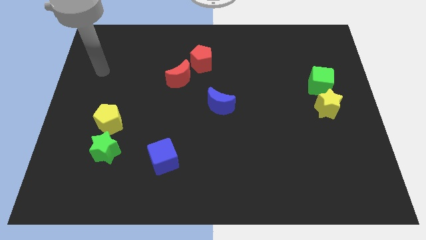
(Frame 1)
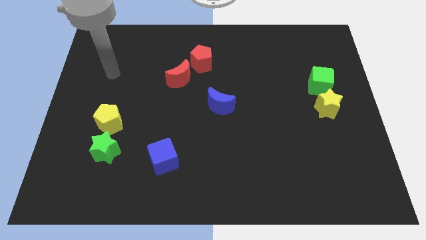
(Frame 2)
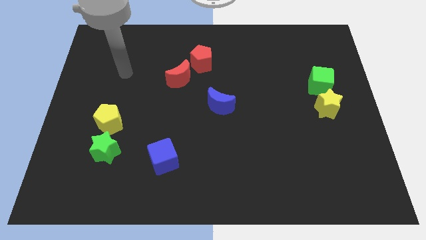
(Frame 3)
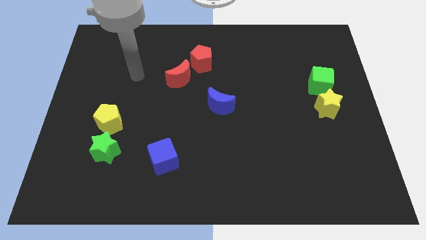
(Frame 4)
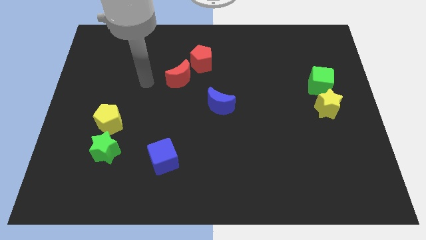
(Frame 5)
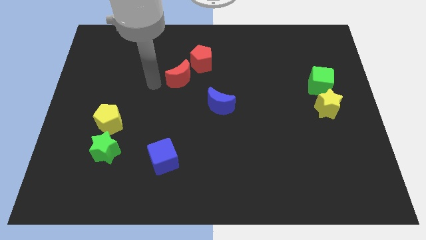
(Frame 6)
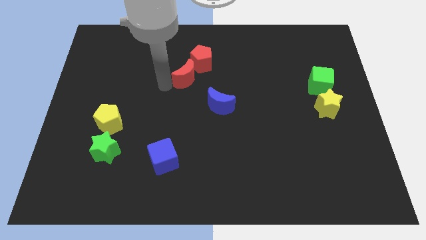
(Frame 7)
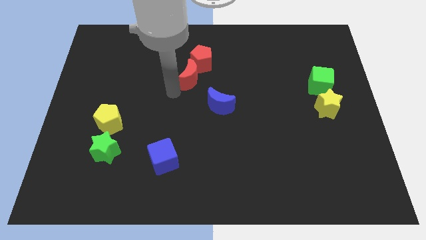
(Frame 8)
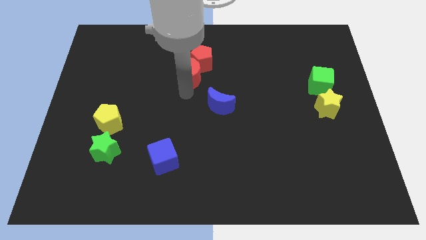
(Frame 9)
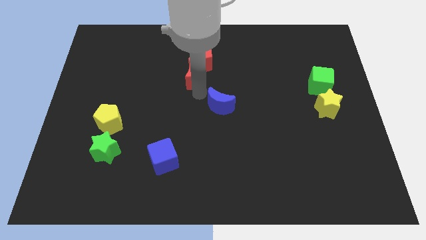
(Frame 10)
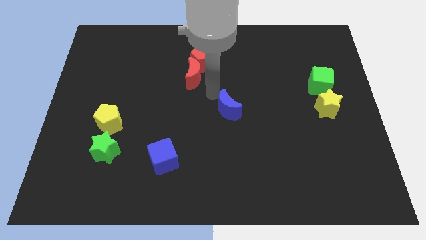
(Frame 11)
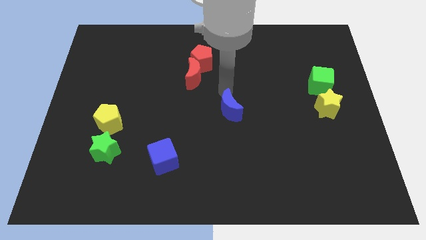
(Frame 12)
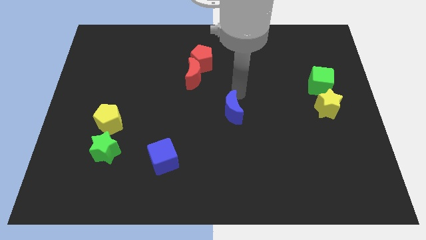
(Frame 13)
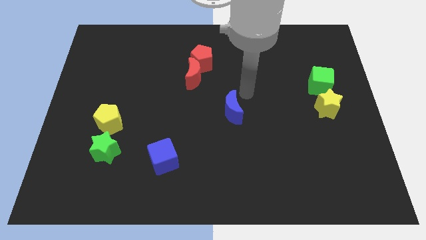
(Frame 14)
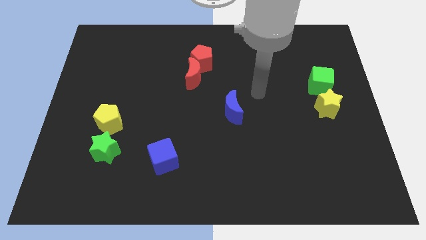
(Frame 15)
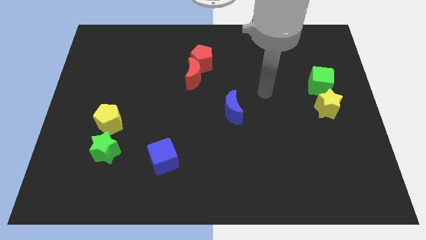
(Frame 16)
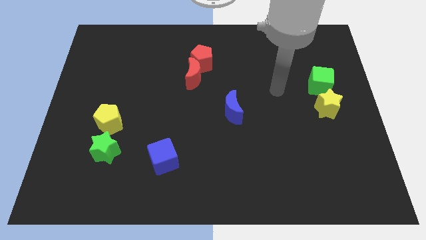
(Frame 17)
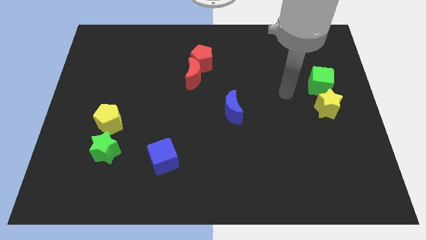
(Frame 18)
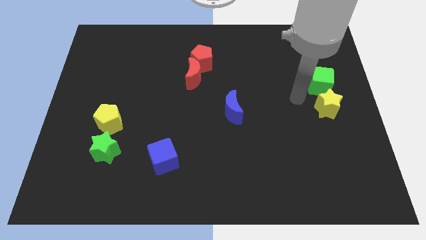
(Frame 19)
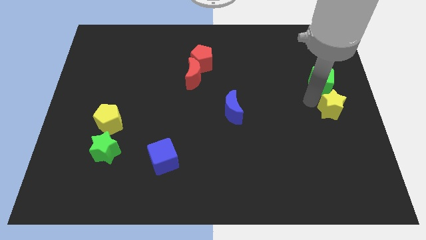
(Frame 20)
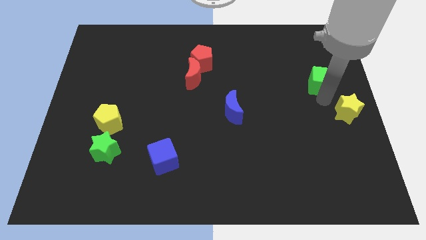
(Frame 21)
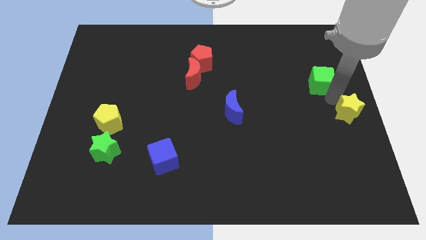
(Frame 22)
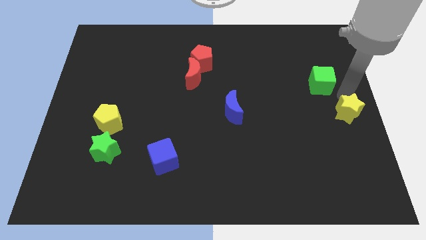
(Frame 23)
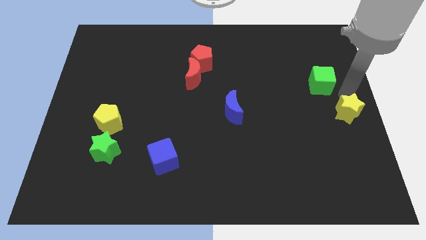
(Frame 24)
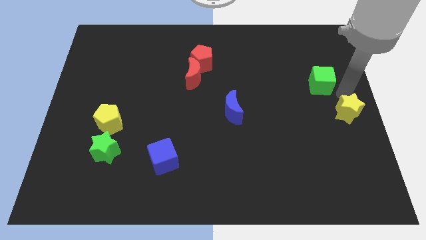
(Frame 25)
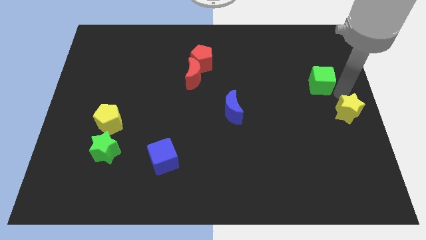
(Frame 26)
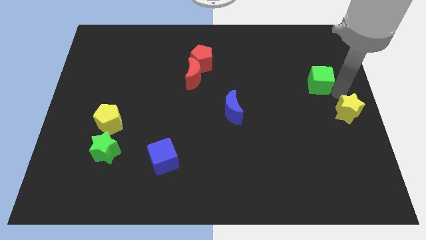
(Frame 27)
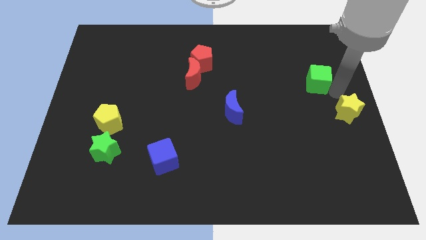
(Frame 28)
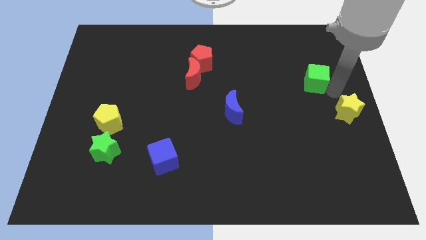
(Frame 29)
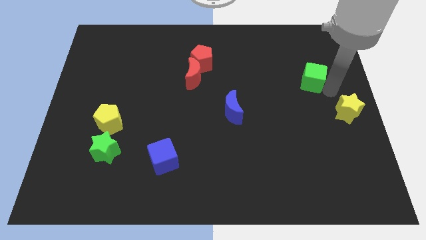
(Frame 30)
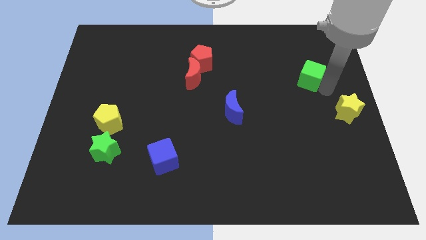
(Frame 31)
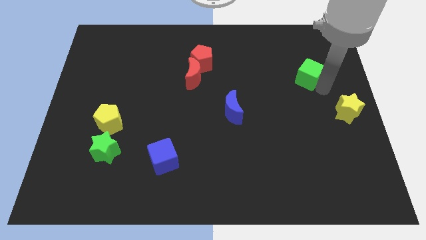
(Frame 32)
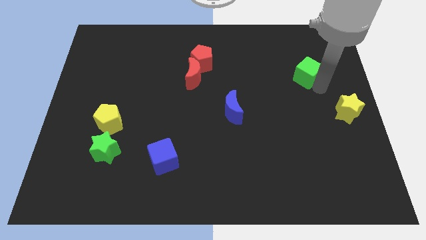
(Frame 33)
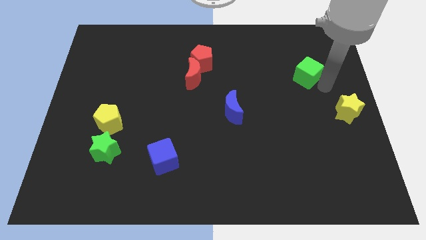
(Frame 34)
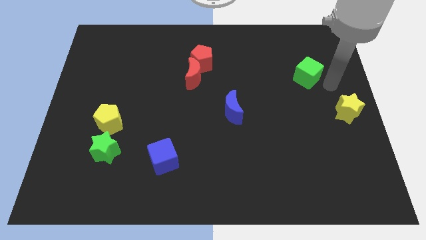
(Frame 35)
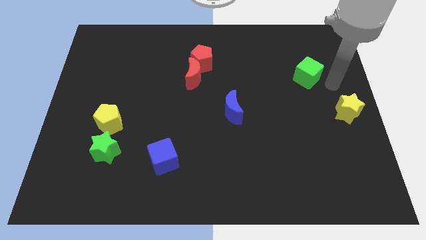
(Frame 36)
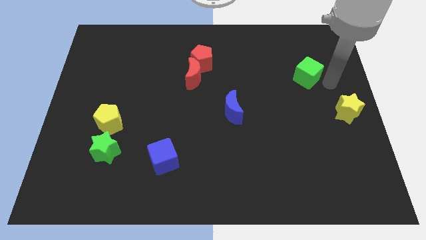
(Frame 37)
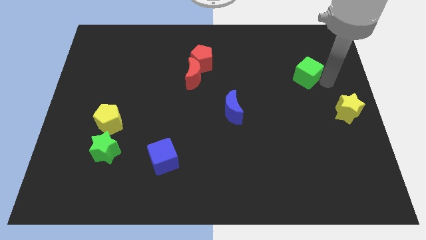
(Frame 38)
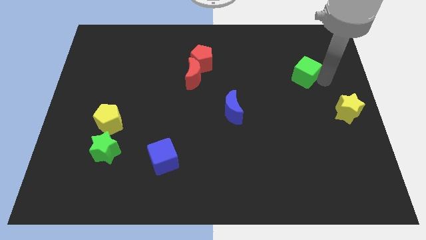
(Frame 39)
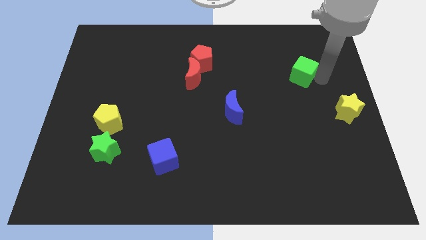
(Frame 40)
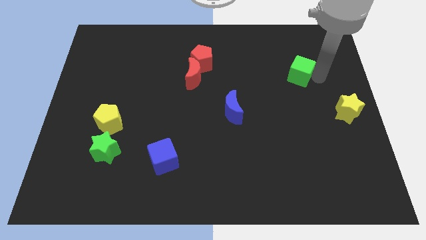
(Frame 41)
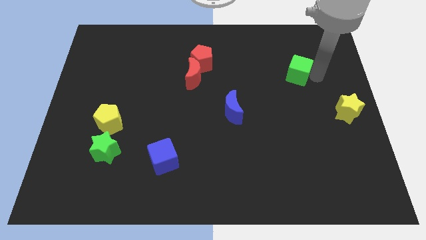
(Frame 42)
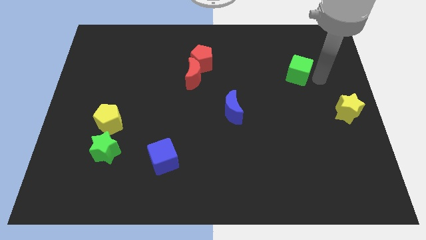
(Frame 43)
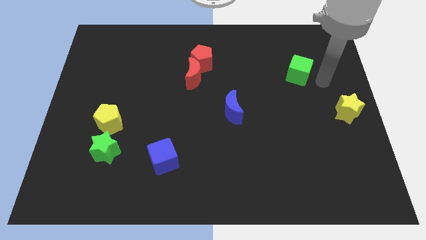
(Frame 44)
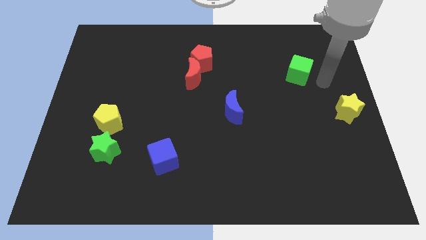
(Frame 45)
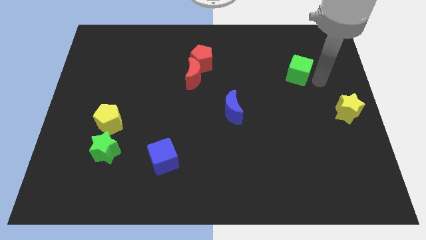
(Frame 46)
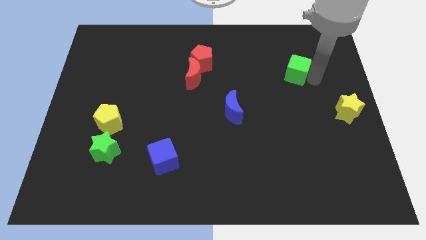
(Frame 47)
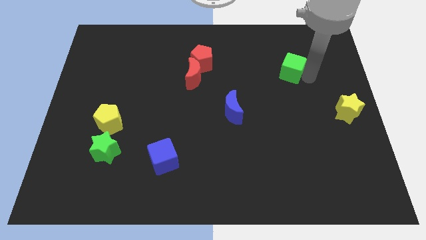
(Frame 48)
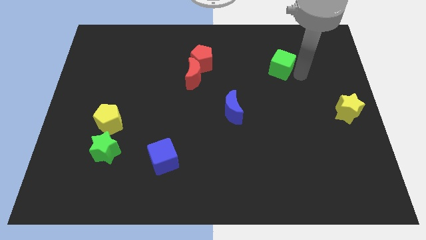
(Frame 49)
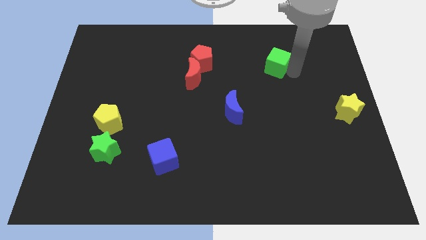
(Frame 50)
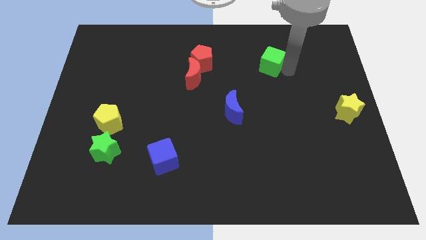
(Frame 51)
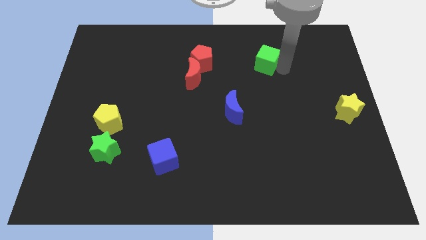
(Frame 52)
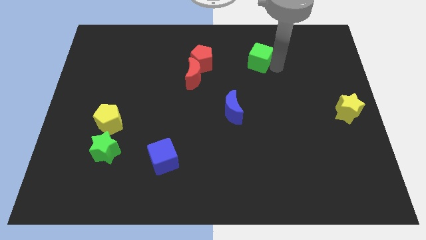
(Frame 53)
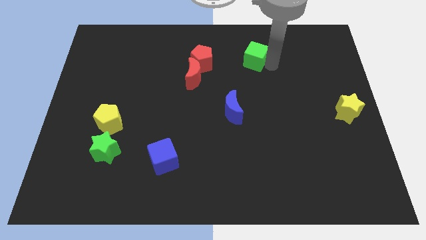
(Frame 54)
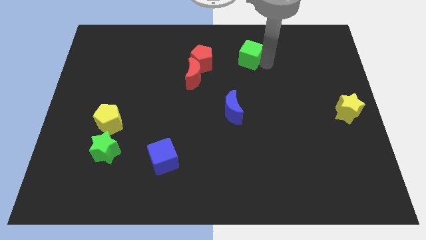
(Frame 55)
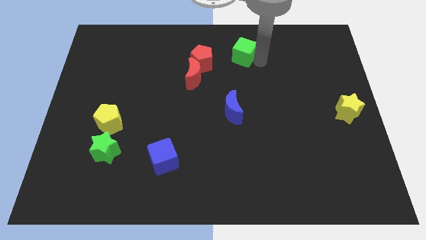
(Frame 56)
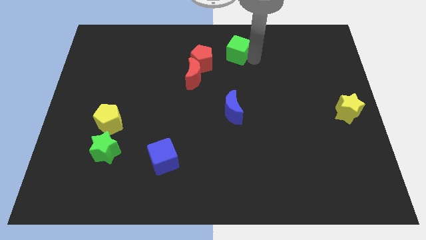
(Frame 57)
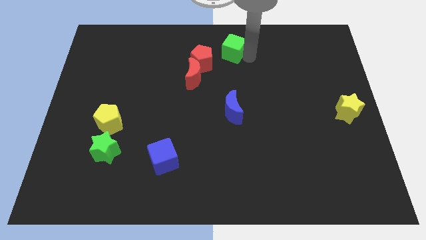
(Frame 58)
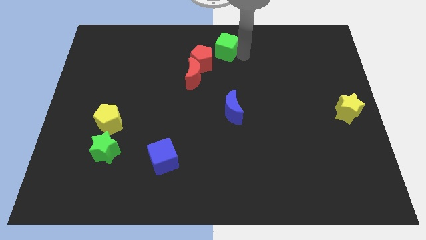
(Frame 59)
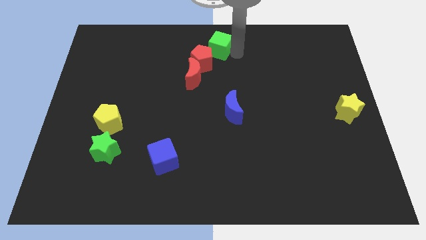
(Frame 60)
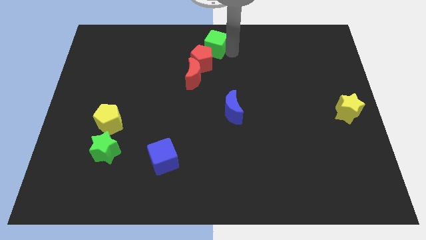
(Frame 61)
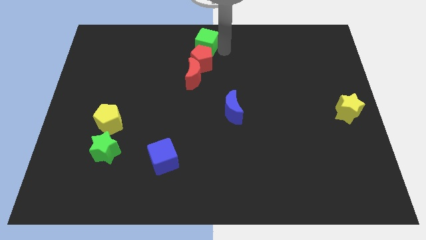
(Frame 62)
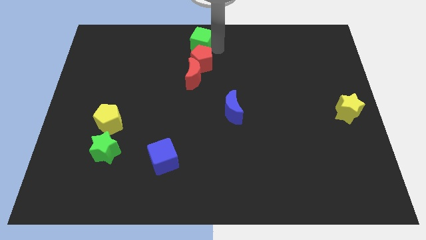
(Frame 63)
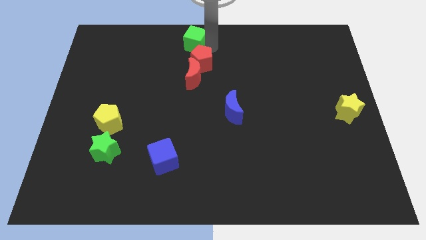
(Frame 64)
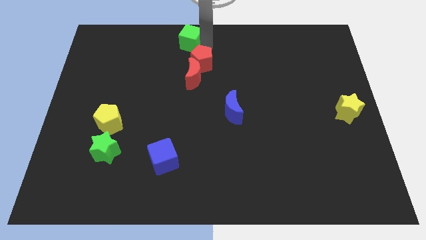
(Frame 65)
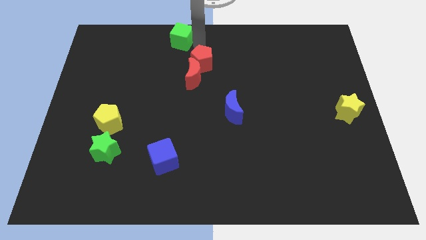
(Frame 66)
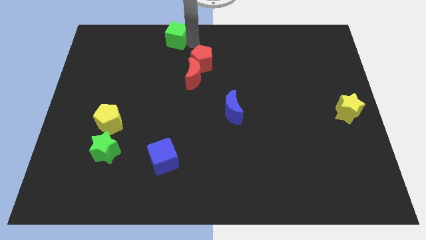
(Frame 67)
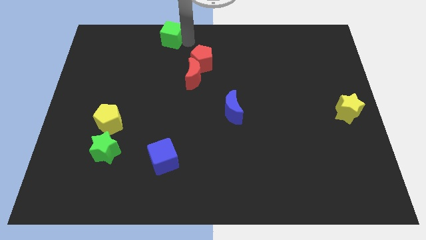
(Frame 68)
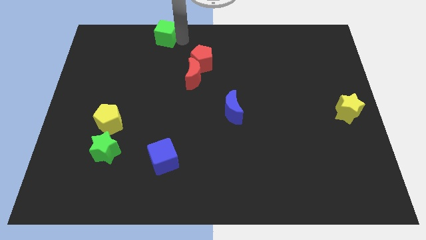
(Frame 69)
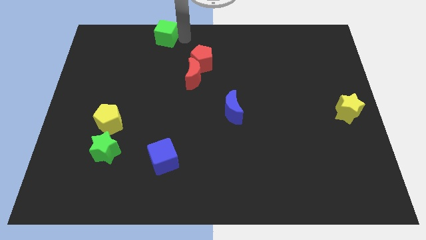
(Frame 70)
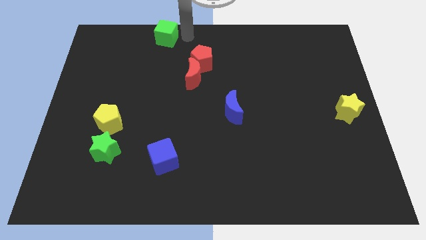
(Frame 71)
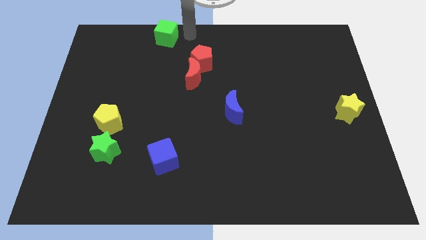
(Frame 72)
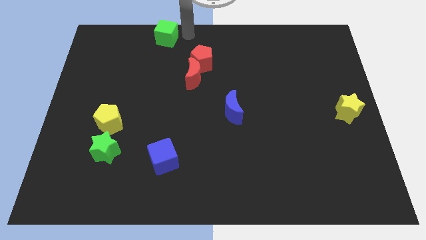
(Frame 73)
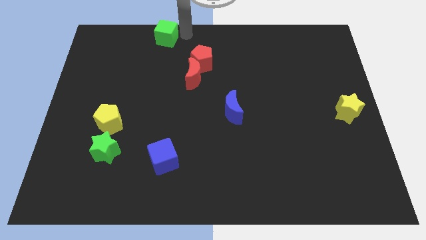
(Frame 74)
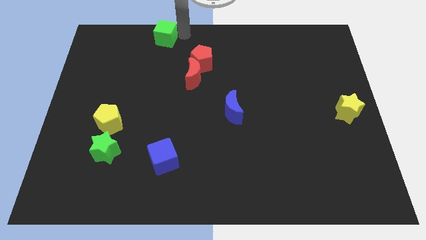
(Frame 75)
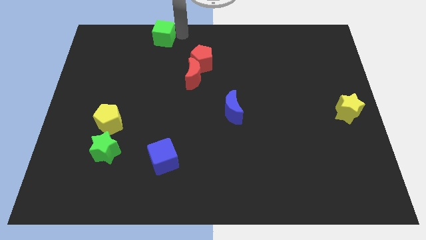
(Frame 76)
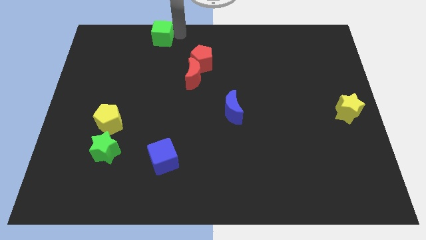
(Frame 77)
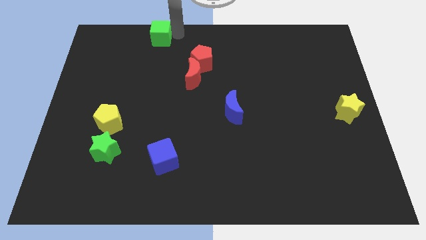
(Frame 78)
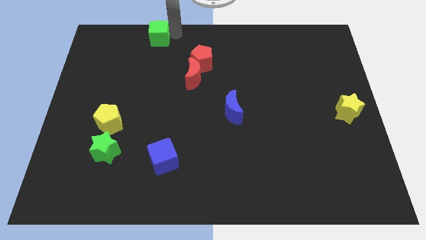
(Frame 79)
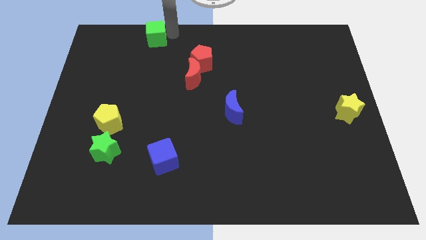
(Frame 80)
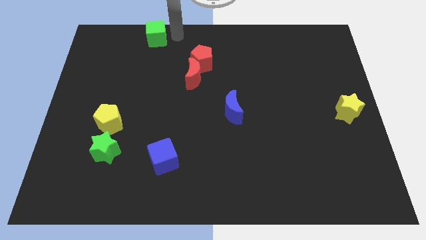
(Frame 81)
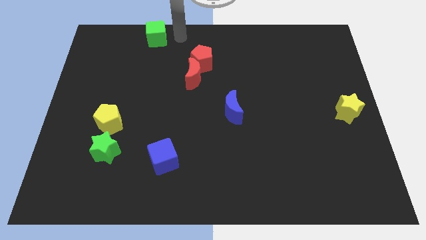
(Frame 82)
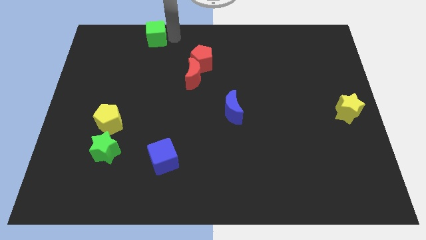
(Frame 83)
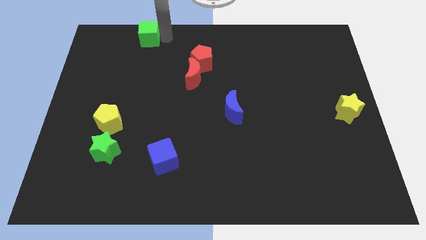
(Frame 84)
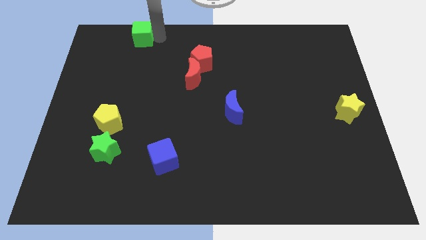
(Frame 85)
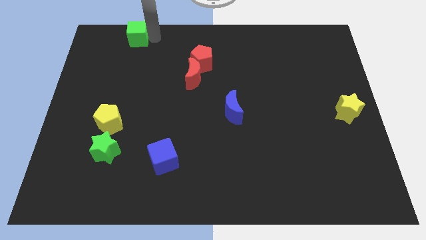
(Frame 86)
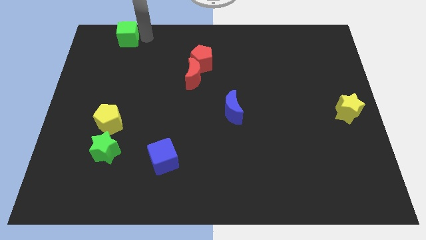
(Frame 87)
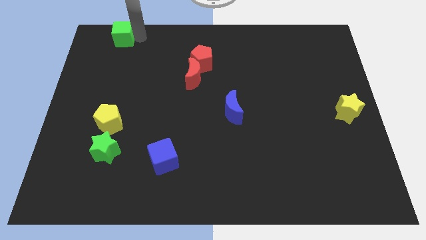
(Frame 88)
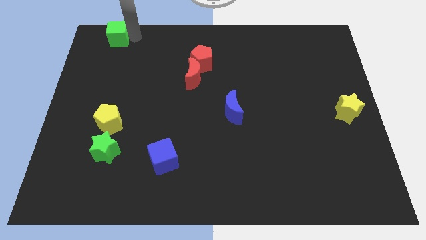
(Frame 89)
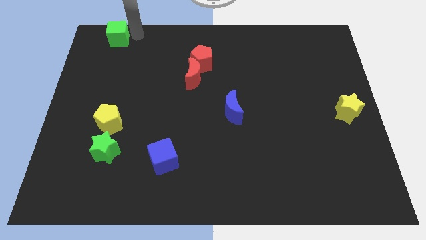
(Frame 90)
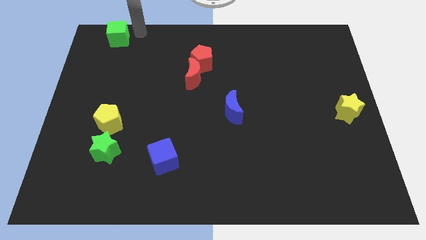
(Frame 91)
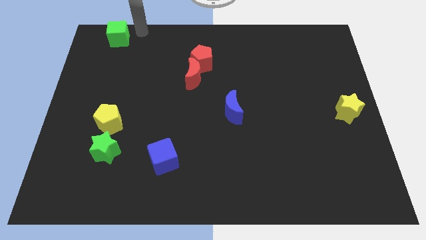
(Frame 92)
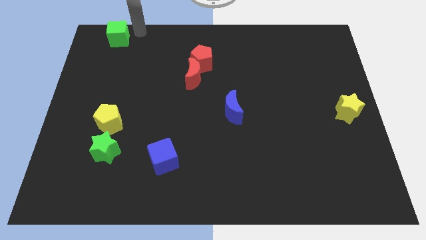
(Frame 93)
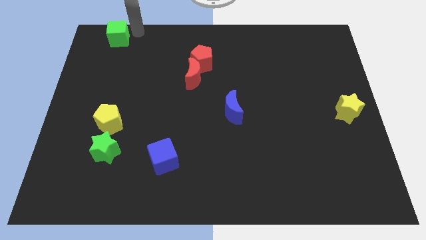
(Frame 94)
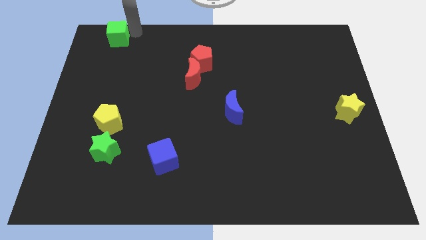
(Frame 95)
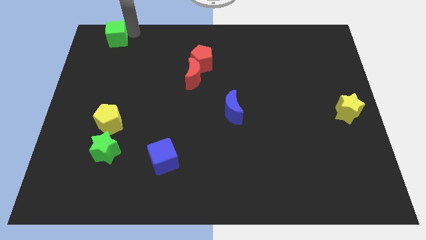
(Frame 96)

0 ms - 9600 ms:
slide the green cube to the top left corner
